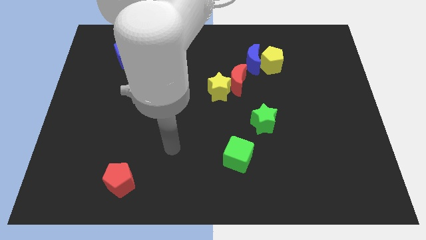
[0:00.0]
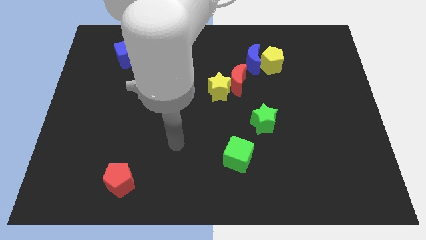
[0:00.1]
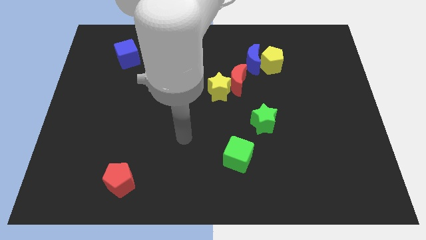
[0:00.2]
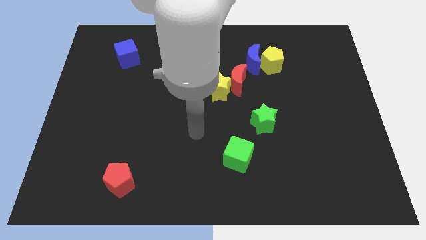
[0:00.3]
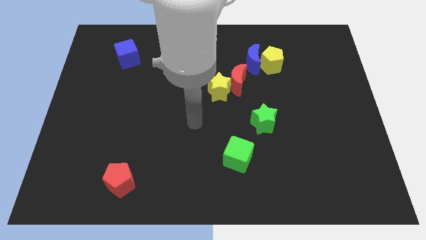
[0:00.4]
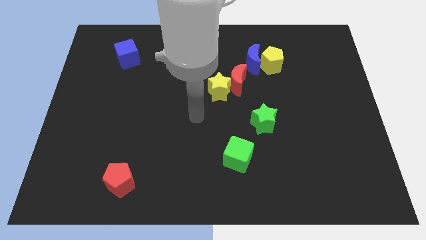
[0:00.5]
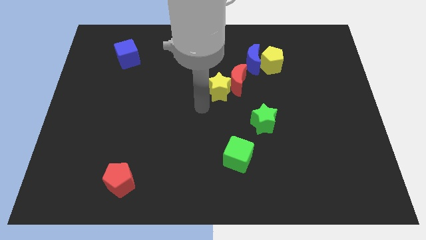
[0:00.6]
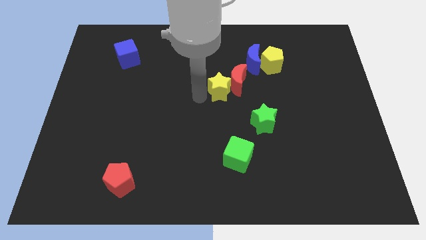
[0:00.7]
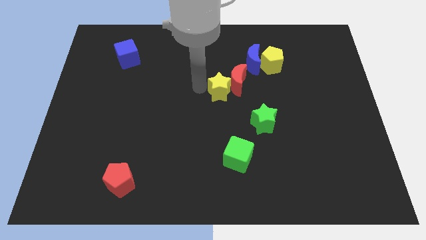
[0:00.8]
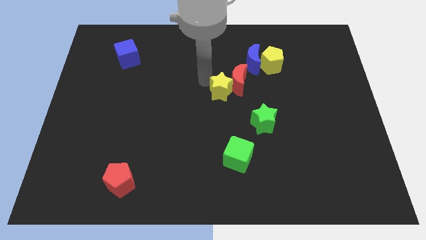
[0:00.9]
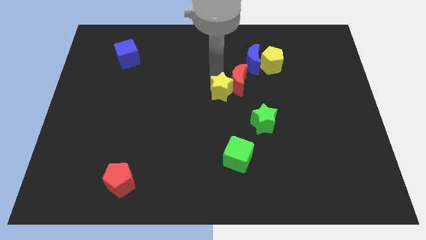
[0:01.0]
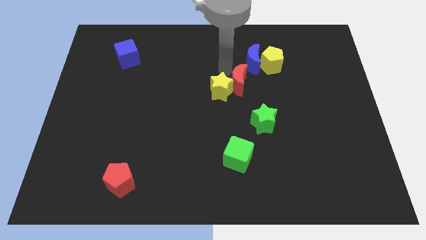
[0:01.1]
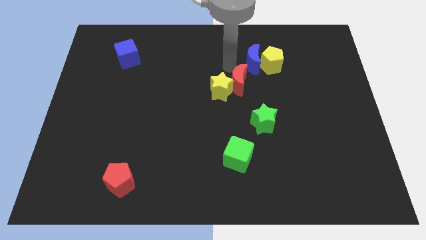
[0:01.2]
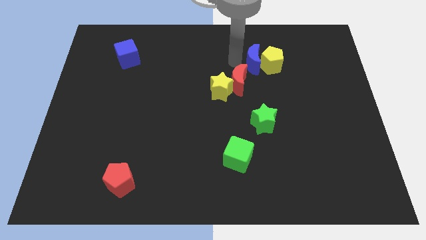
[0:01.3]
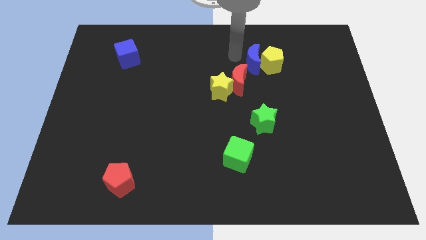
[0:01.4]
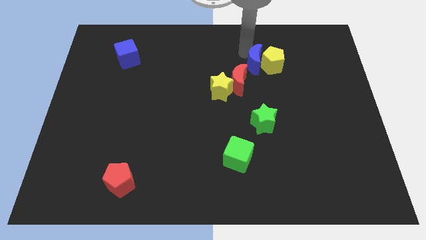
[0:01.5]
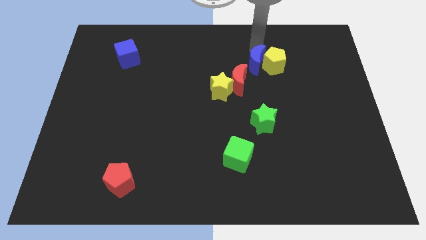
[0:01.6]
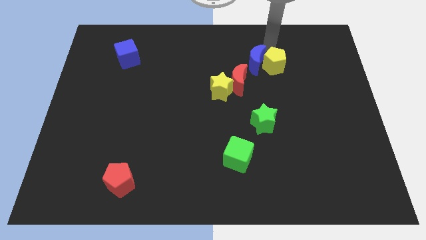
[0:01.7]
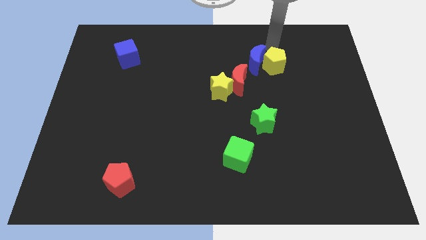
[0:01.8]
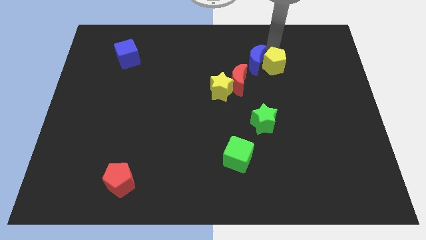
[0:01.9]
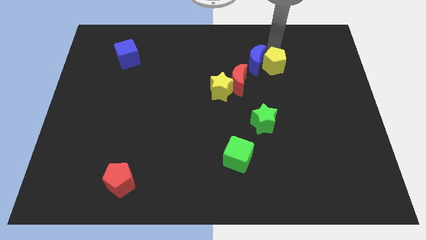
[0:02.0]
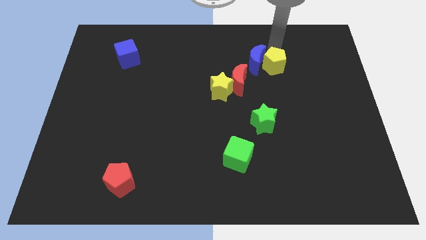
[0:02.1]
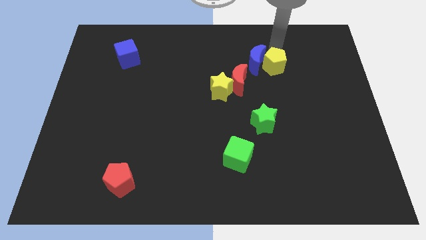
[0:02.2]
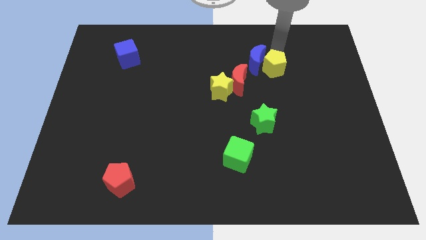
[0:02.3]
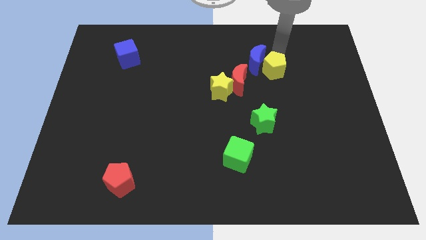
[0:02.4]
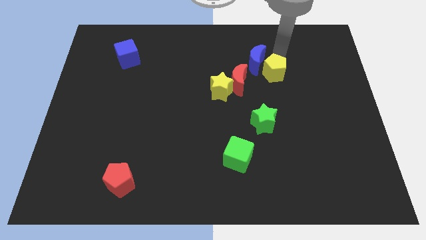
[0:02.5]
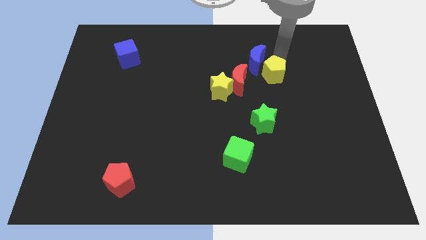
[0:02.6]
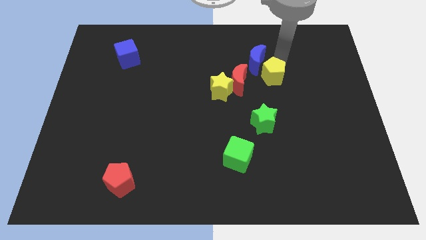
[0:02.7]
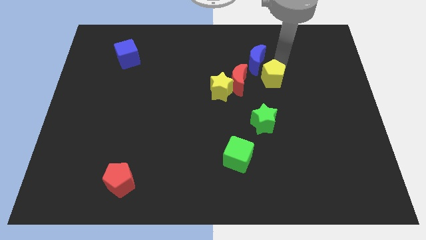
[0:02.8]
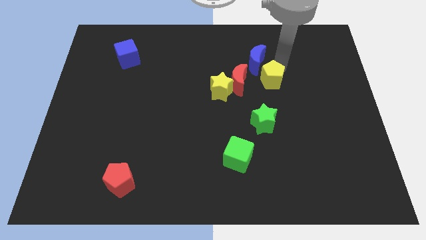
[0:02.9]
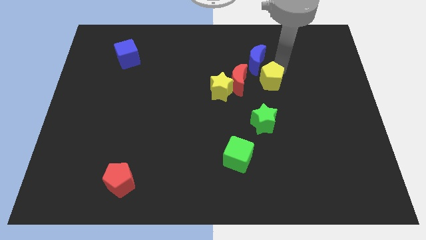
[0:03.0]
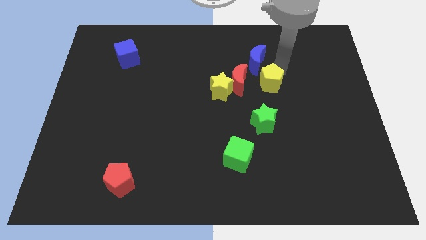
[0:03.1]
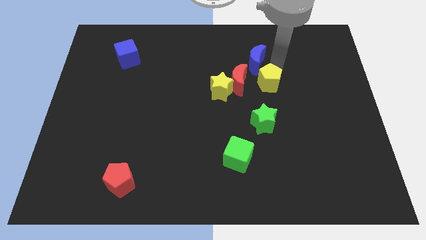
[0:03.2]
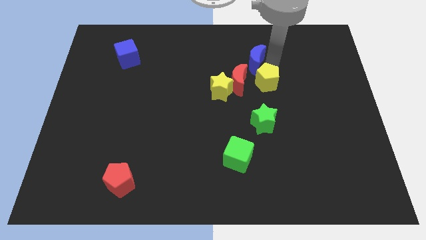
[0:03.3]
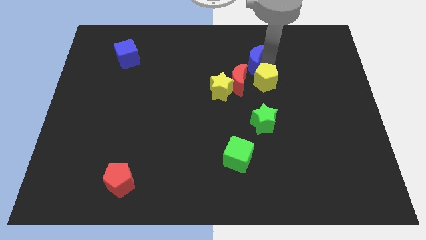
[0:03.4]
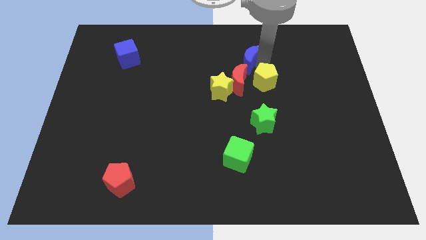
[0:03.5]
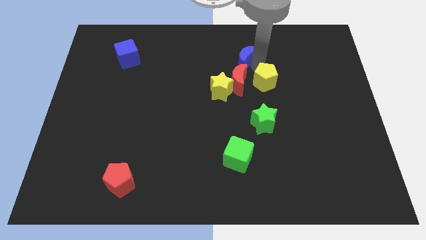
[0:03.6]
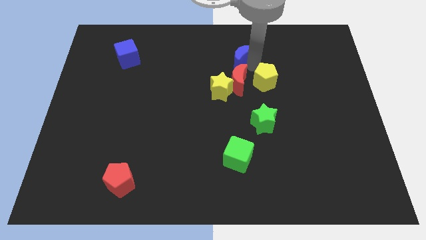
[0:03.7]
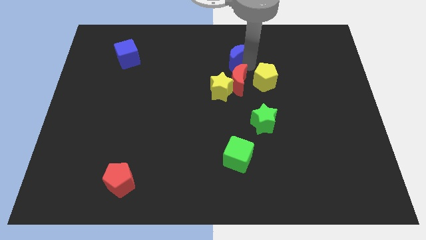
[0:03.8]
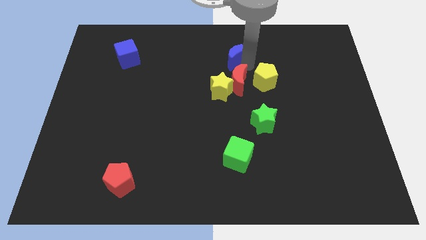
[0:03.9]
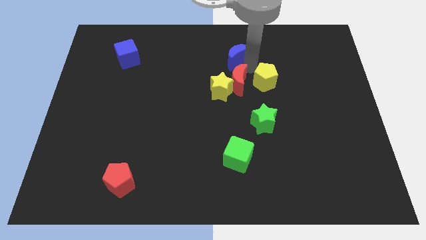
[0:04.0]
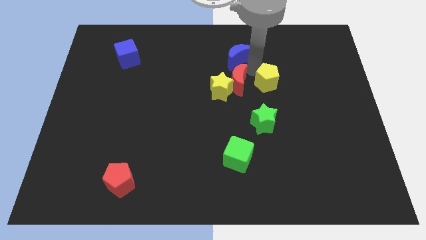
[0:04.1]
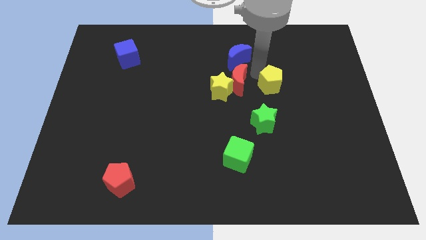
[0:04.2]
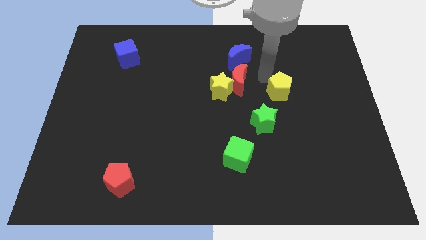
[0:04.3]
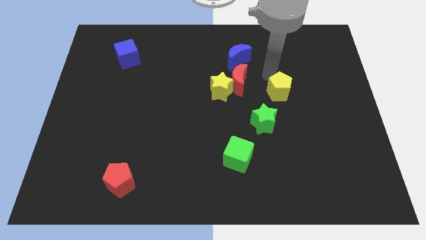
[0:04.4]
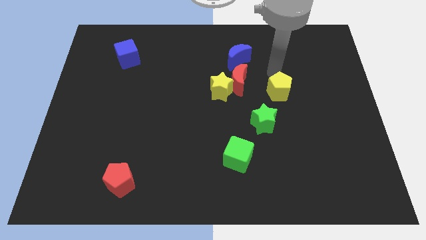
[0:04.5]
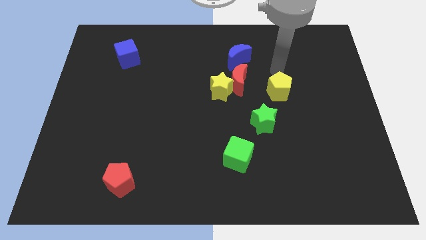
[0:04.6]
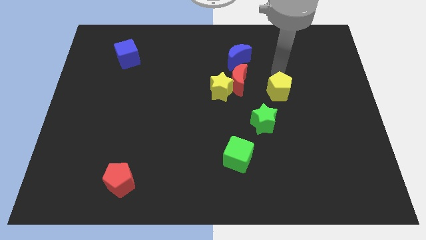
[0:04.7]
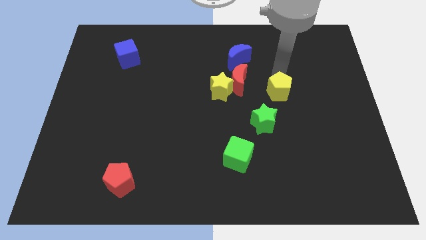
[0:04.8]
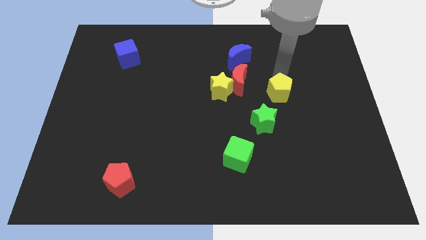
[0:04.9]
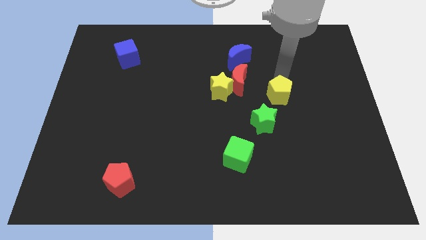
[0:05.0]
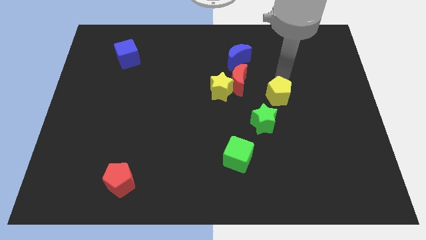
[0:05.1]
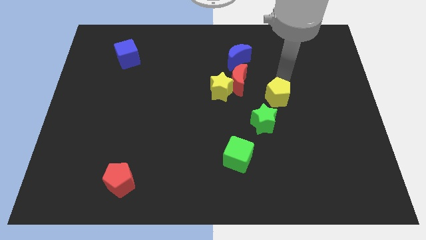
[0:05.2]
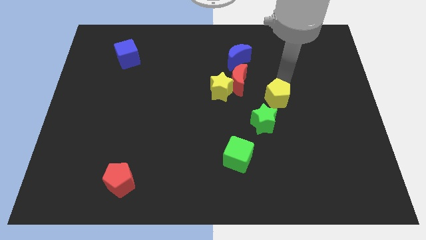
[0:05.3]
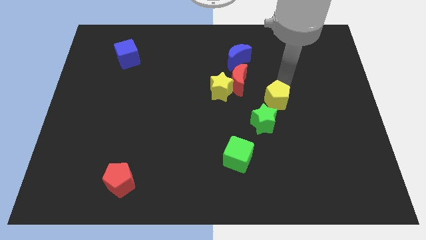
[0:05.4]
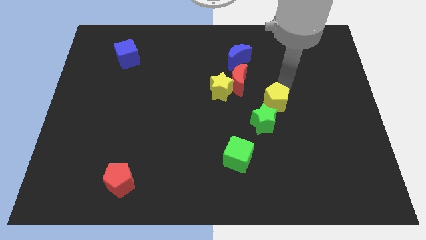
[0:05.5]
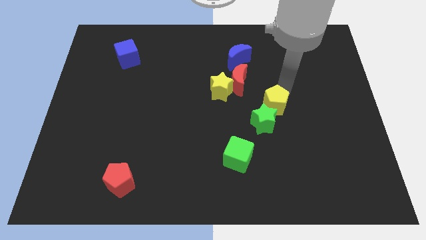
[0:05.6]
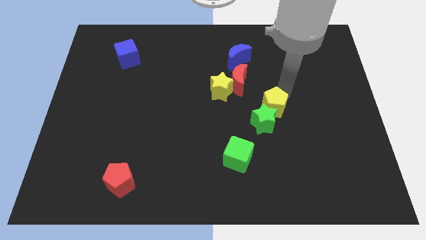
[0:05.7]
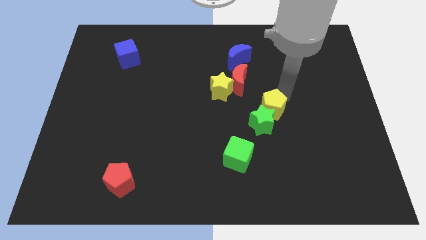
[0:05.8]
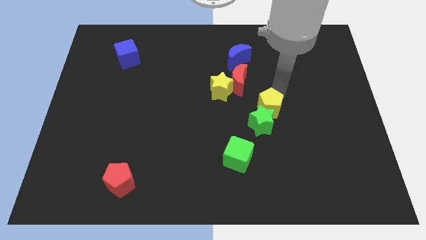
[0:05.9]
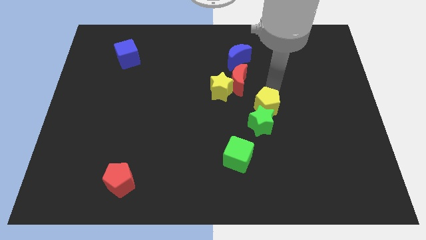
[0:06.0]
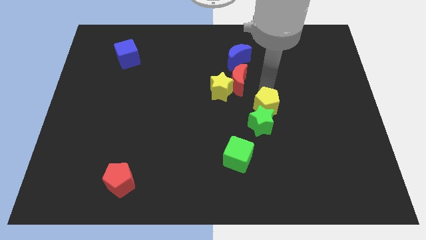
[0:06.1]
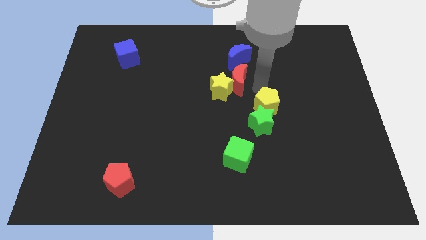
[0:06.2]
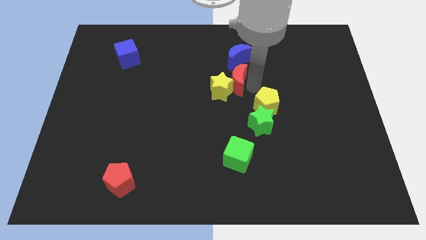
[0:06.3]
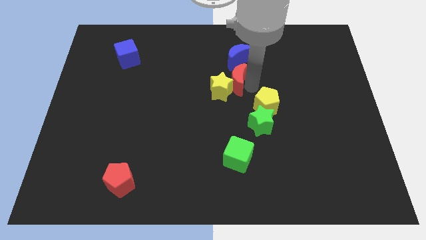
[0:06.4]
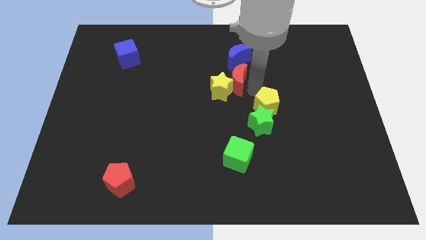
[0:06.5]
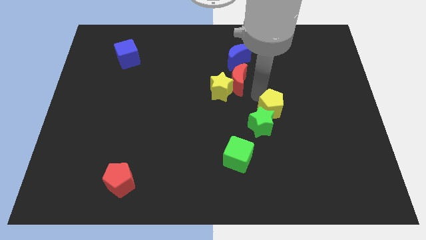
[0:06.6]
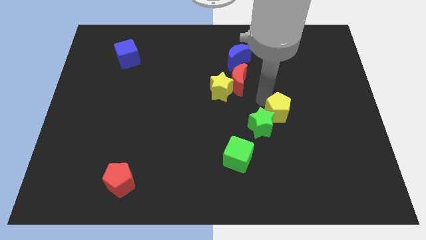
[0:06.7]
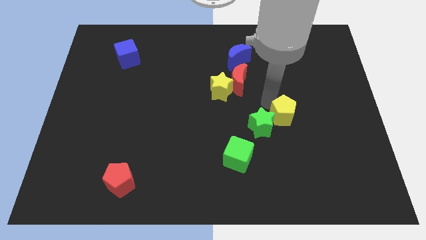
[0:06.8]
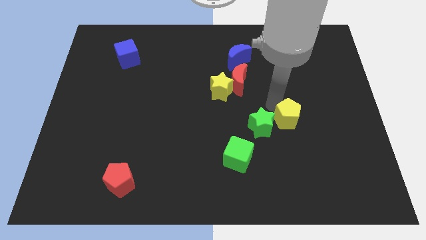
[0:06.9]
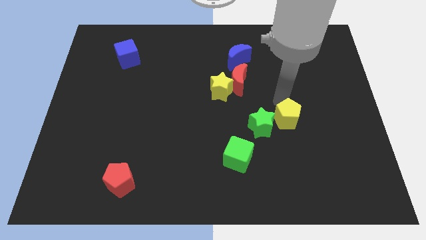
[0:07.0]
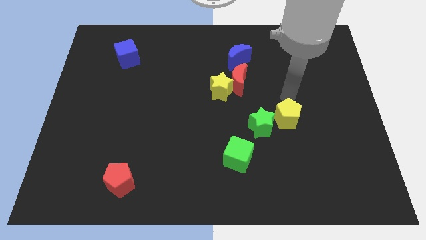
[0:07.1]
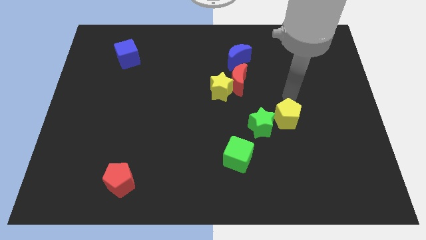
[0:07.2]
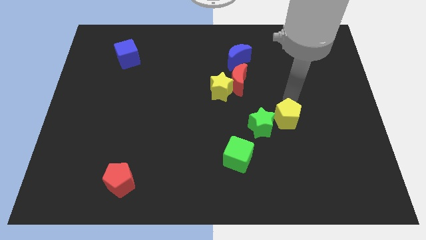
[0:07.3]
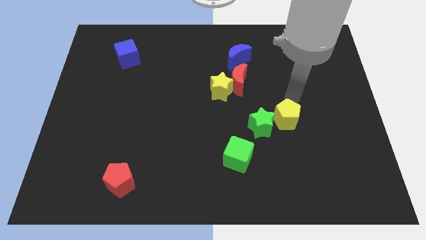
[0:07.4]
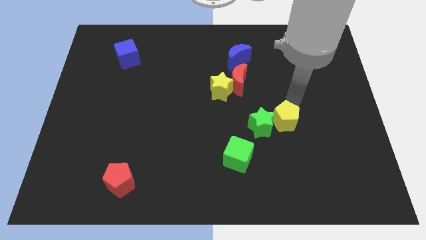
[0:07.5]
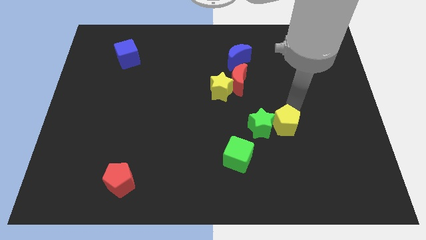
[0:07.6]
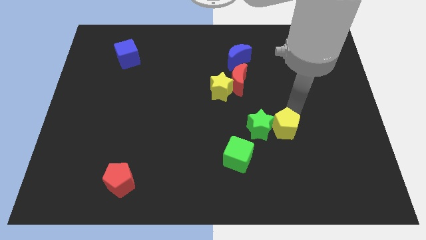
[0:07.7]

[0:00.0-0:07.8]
push the yellow pentagon down
